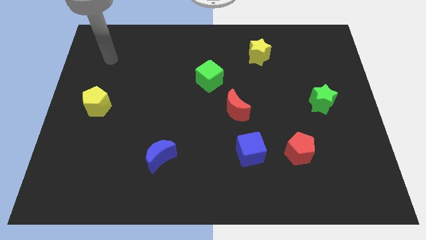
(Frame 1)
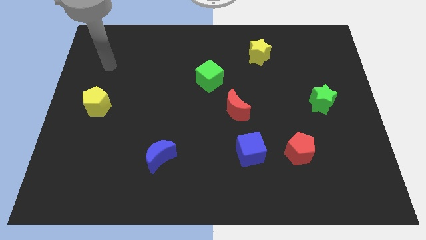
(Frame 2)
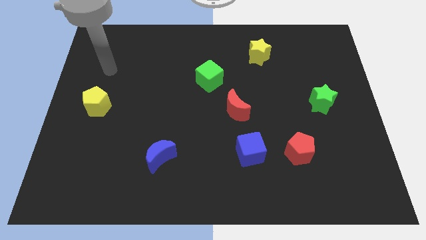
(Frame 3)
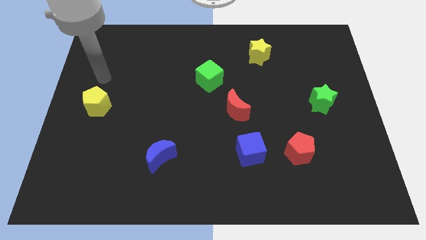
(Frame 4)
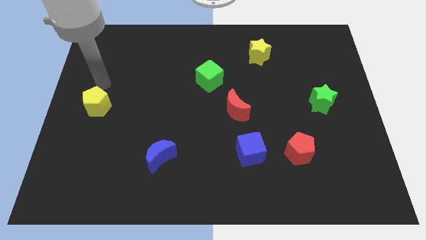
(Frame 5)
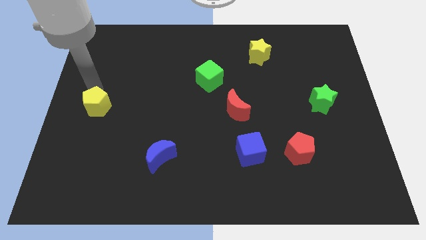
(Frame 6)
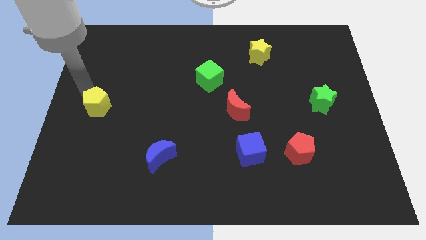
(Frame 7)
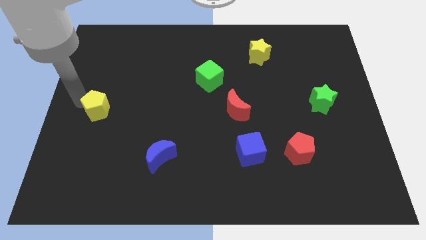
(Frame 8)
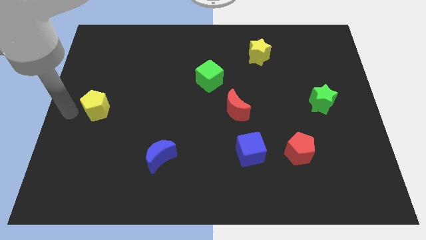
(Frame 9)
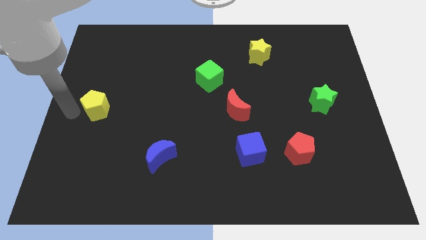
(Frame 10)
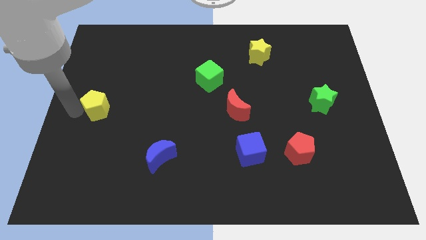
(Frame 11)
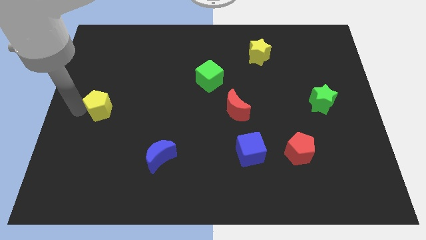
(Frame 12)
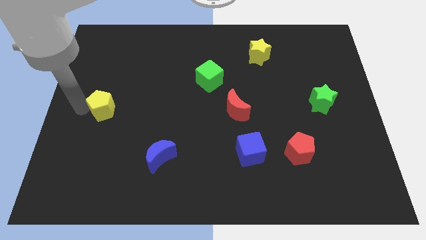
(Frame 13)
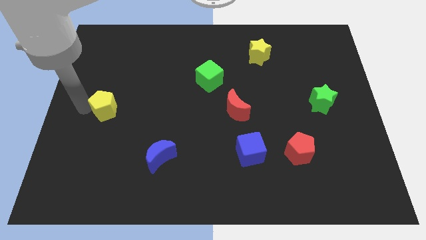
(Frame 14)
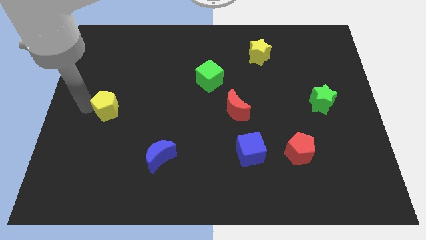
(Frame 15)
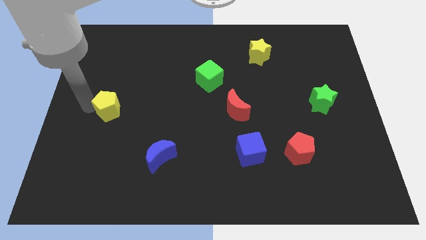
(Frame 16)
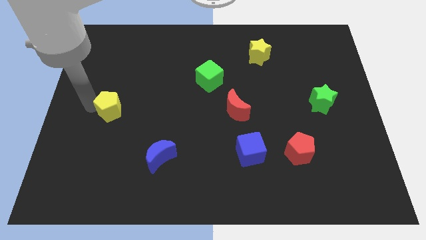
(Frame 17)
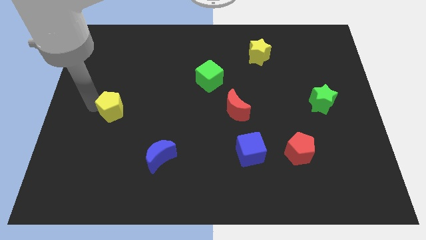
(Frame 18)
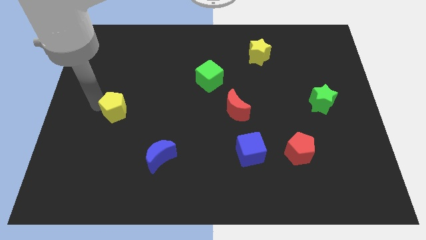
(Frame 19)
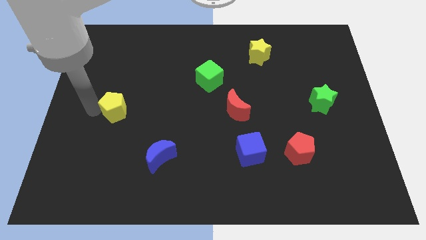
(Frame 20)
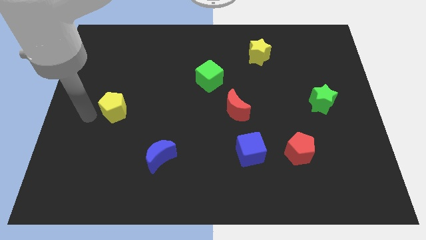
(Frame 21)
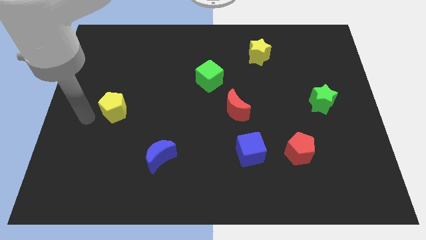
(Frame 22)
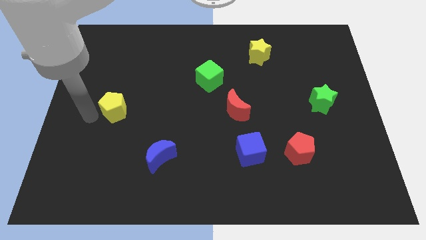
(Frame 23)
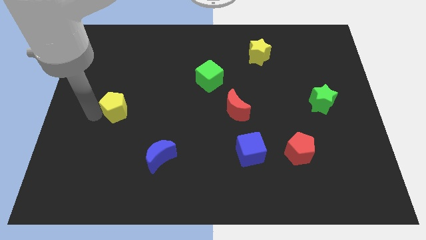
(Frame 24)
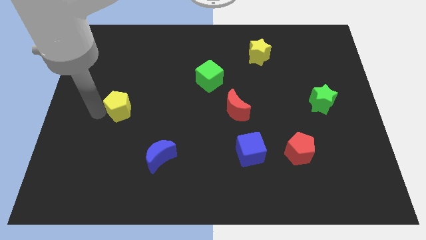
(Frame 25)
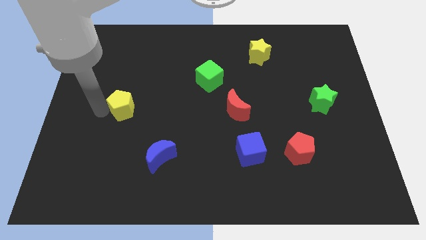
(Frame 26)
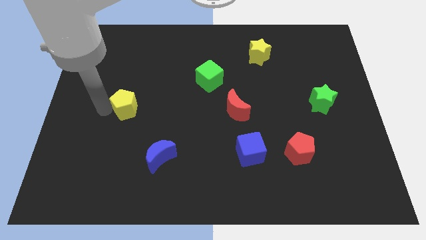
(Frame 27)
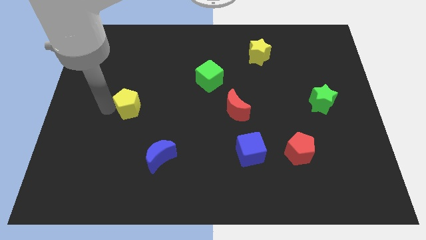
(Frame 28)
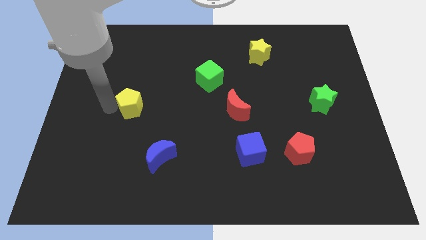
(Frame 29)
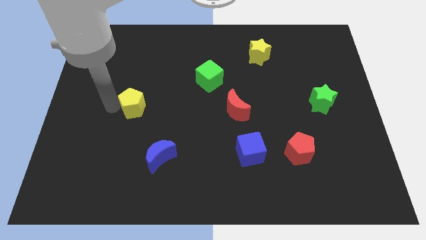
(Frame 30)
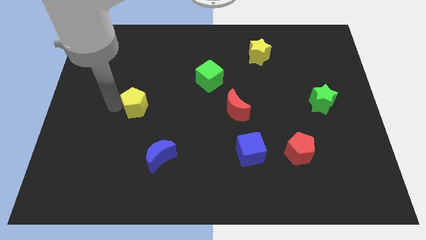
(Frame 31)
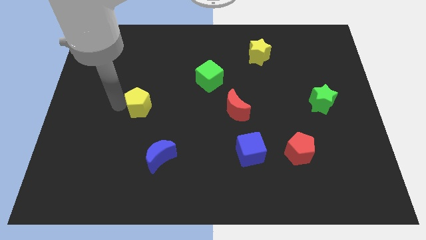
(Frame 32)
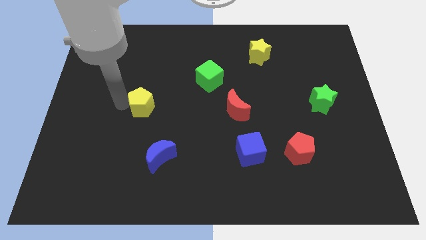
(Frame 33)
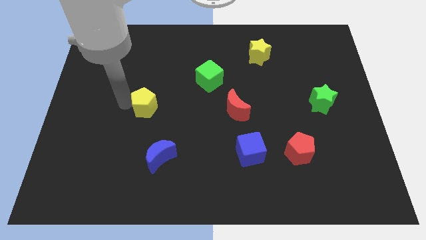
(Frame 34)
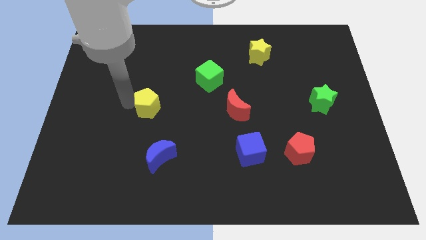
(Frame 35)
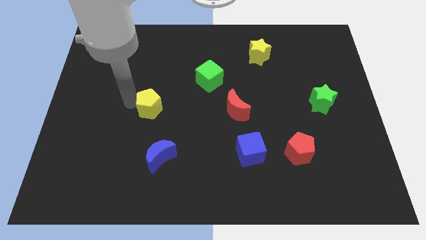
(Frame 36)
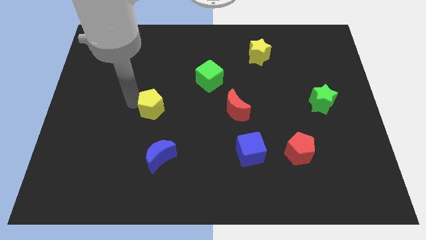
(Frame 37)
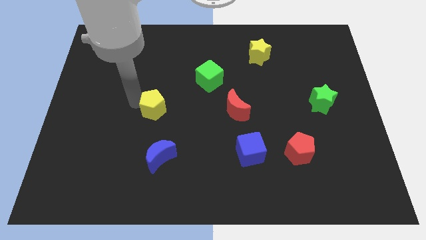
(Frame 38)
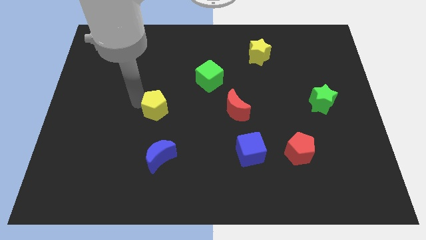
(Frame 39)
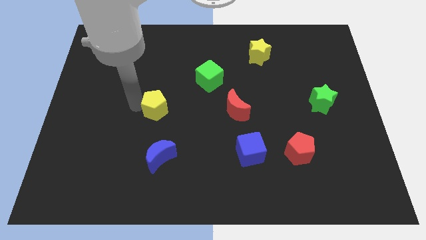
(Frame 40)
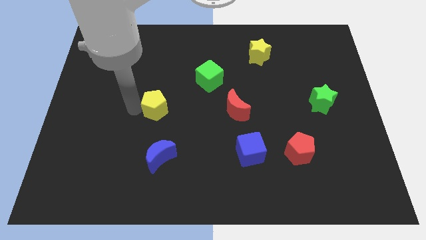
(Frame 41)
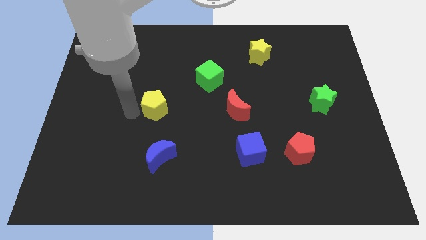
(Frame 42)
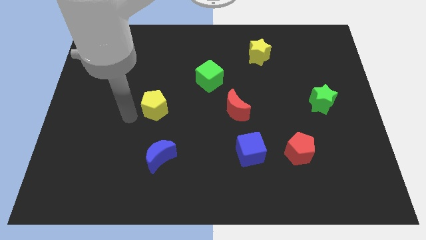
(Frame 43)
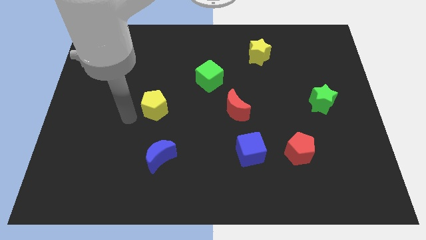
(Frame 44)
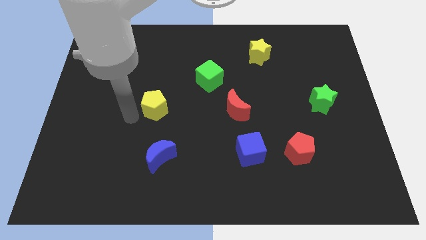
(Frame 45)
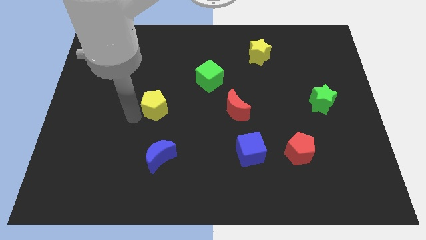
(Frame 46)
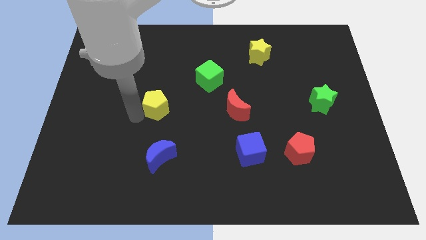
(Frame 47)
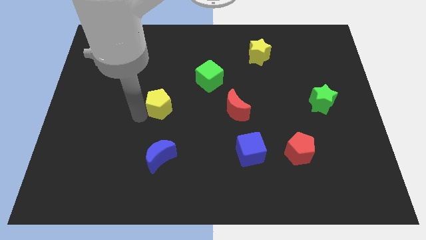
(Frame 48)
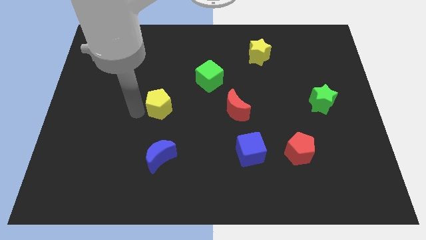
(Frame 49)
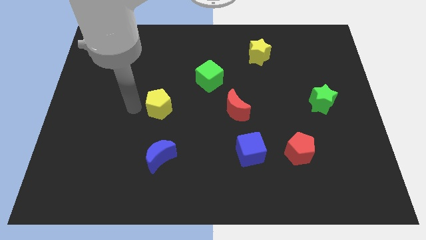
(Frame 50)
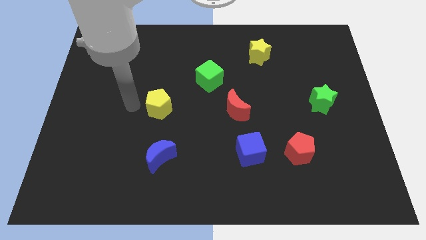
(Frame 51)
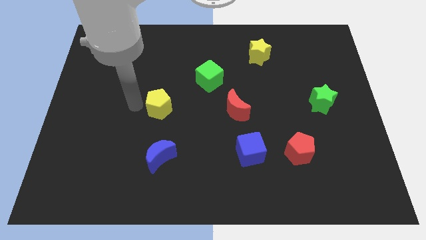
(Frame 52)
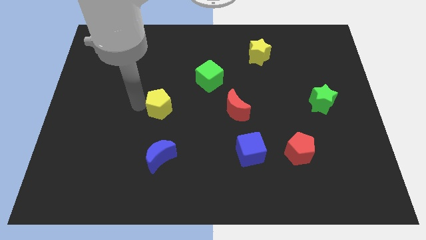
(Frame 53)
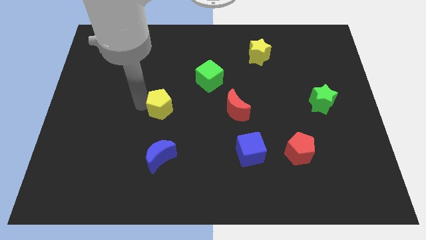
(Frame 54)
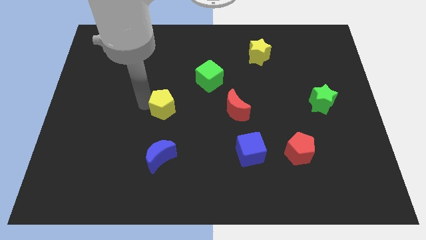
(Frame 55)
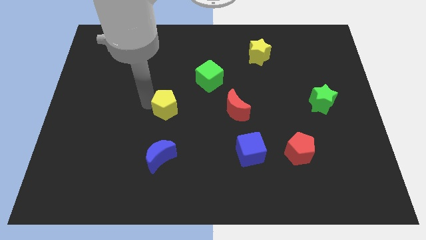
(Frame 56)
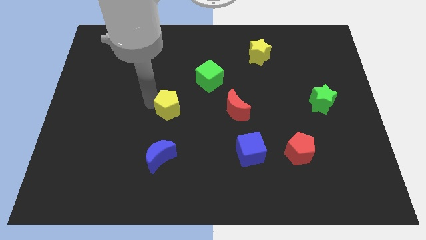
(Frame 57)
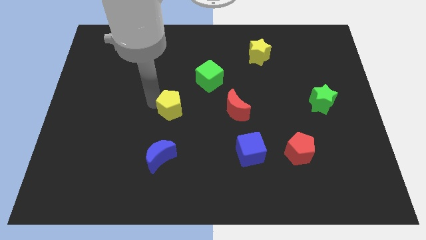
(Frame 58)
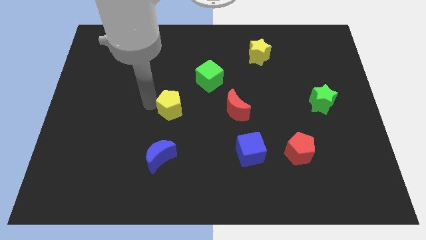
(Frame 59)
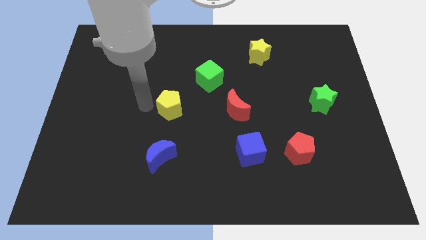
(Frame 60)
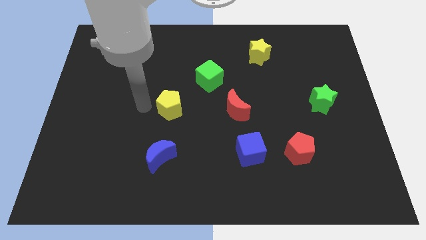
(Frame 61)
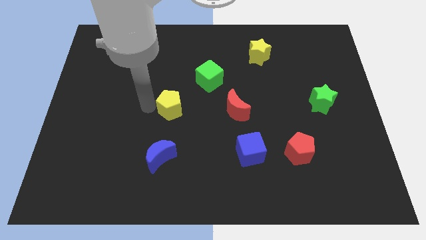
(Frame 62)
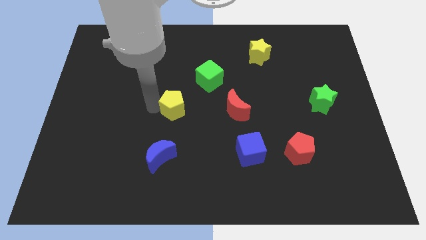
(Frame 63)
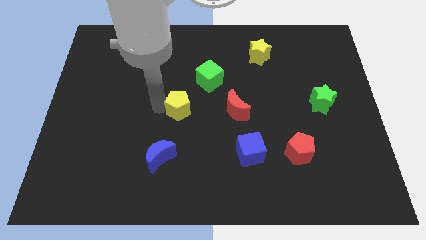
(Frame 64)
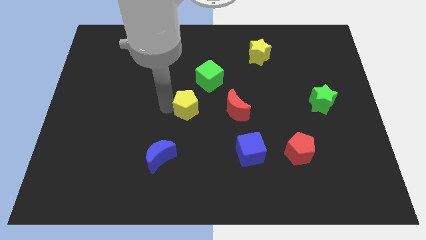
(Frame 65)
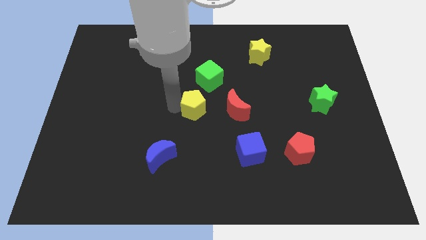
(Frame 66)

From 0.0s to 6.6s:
put the yellow pentagon below the green cube

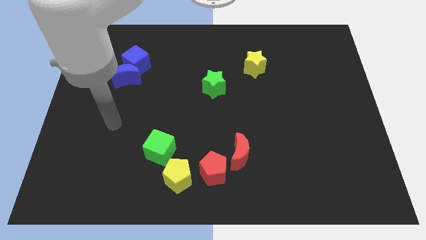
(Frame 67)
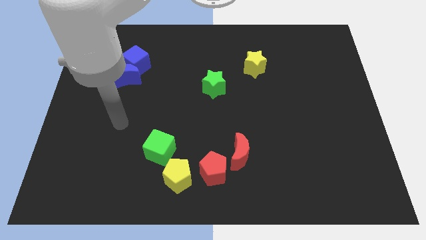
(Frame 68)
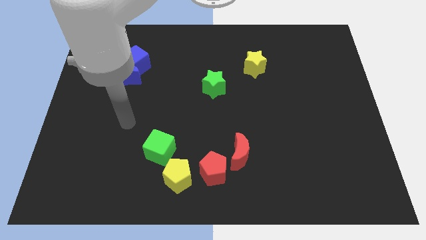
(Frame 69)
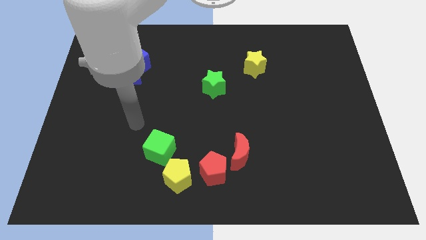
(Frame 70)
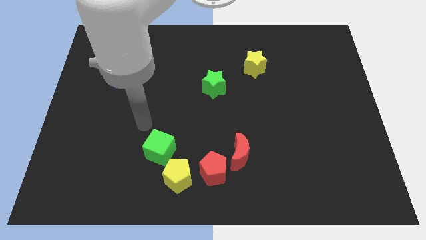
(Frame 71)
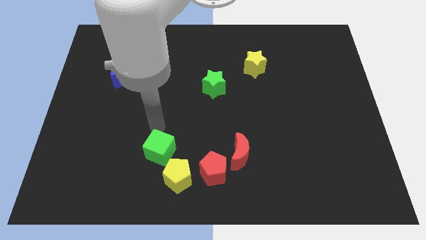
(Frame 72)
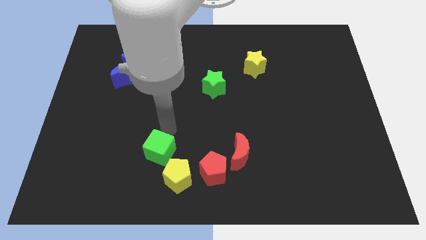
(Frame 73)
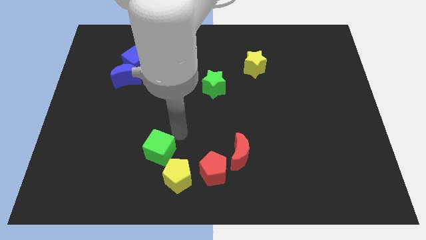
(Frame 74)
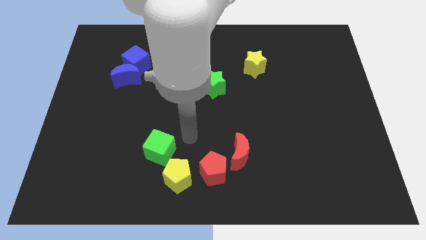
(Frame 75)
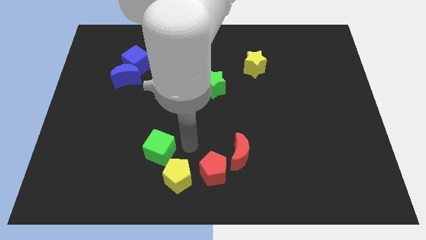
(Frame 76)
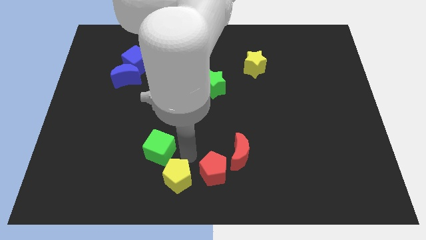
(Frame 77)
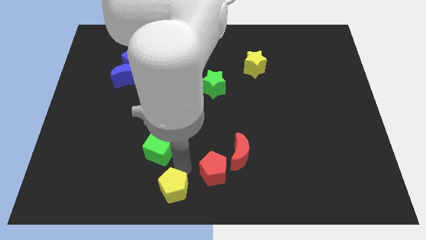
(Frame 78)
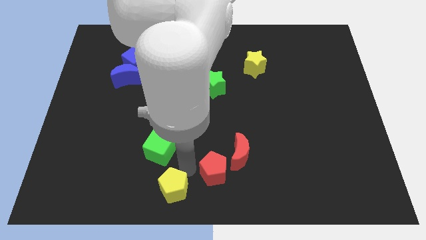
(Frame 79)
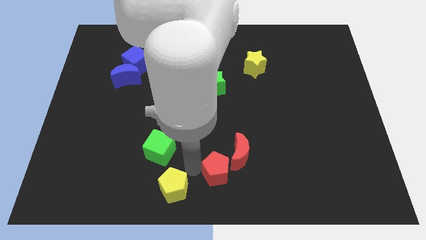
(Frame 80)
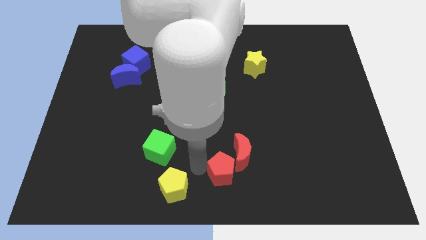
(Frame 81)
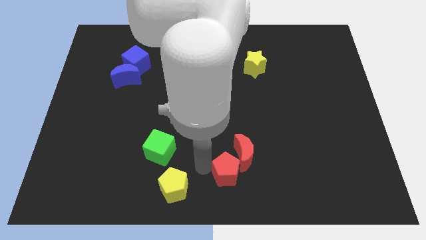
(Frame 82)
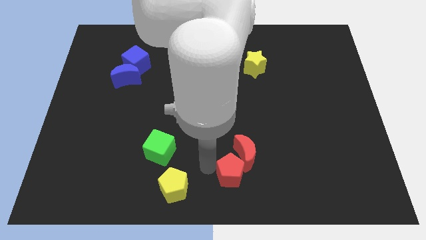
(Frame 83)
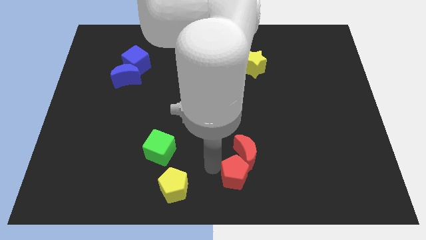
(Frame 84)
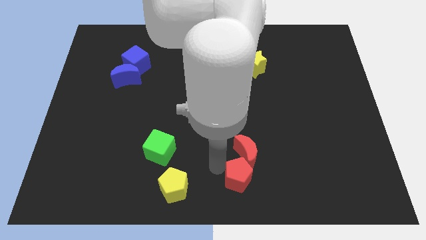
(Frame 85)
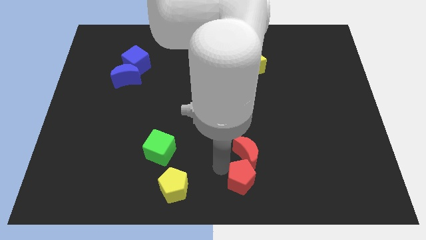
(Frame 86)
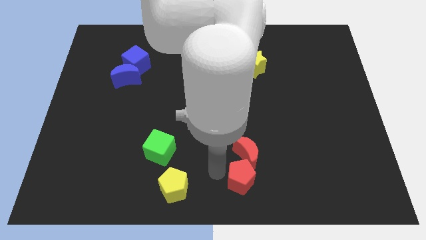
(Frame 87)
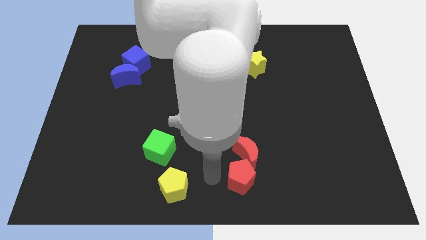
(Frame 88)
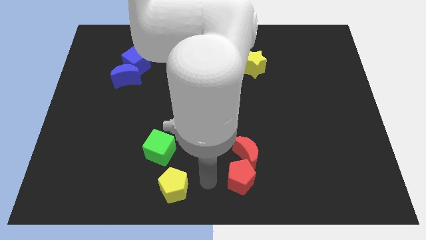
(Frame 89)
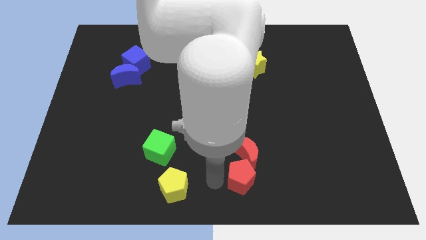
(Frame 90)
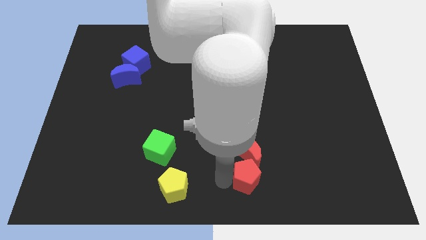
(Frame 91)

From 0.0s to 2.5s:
put the red pentagon to the bottom right of the red moon

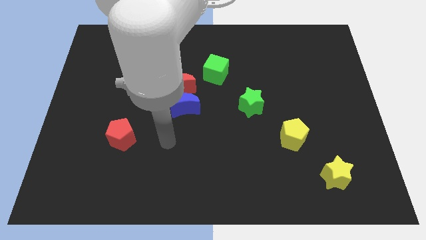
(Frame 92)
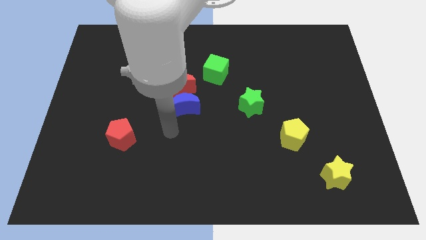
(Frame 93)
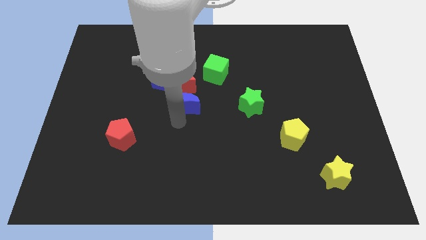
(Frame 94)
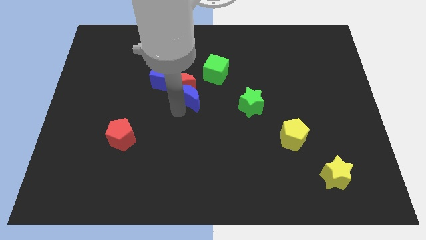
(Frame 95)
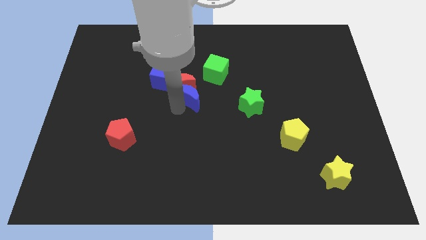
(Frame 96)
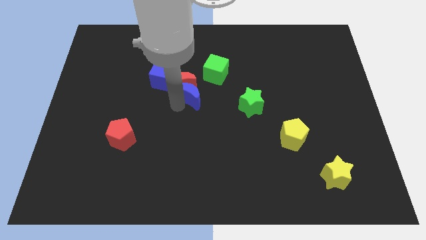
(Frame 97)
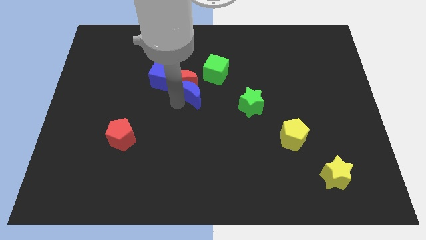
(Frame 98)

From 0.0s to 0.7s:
slide the red moon to the top right side of the blue cube
